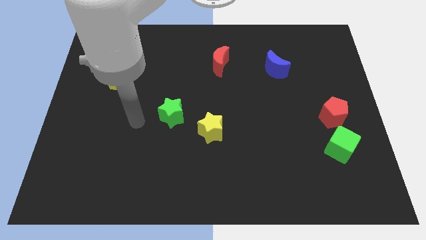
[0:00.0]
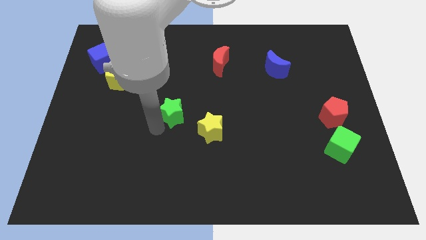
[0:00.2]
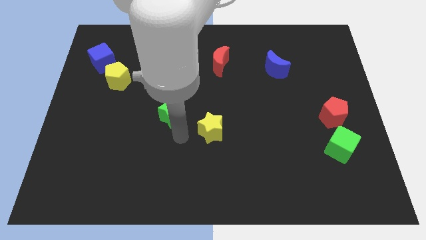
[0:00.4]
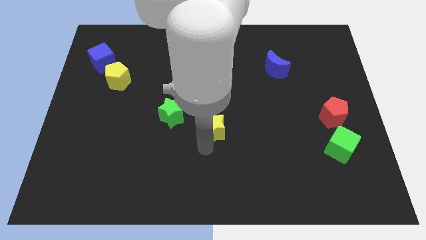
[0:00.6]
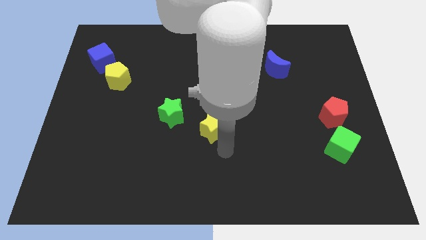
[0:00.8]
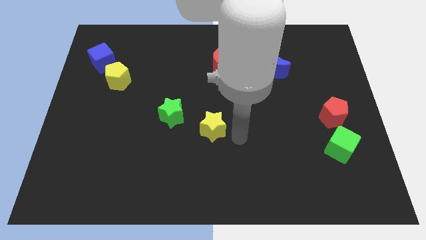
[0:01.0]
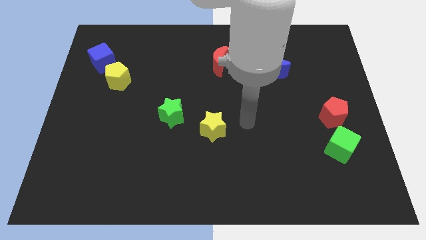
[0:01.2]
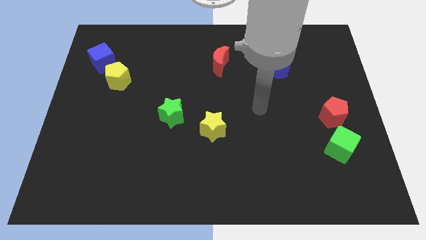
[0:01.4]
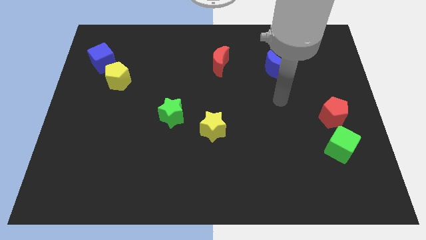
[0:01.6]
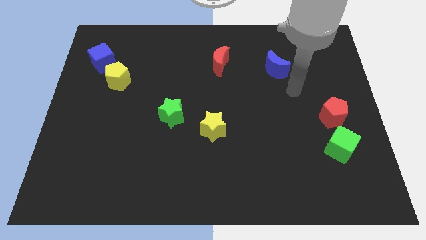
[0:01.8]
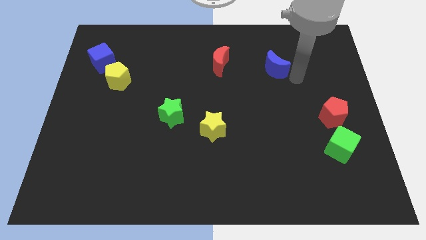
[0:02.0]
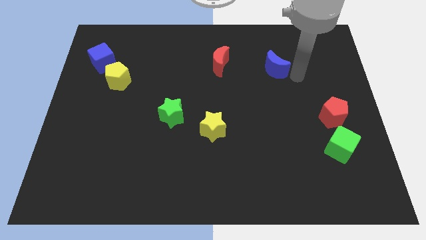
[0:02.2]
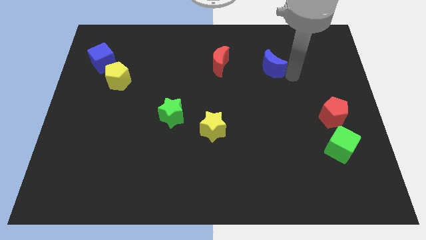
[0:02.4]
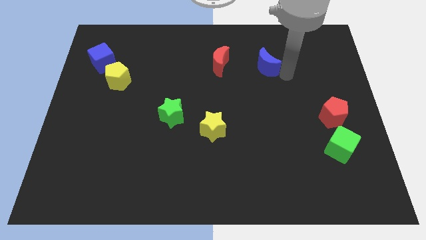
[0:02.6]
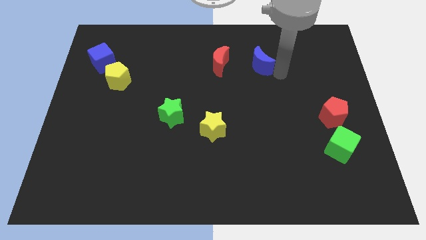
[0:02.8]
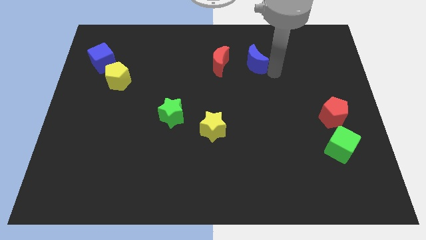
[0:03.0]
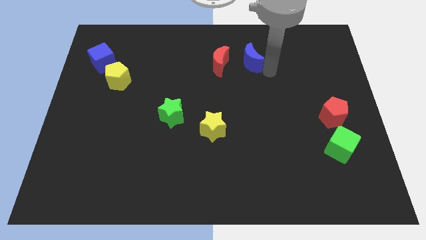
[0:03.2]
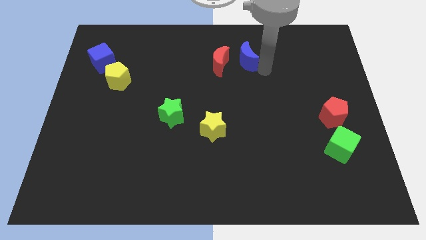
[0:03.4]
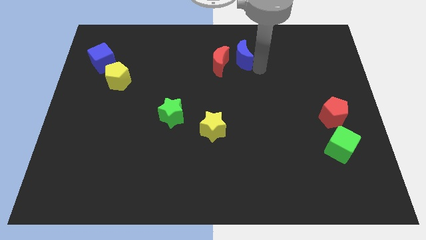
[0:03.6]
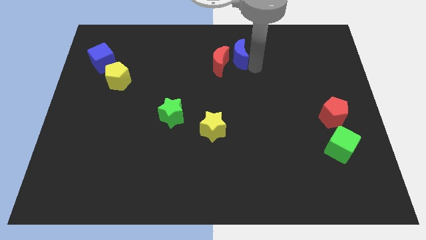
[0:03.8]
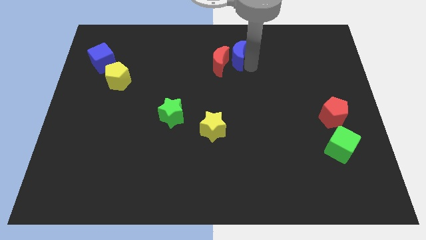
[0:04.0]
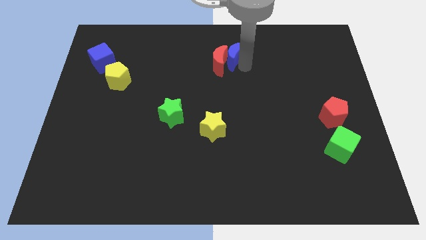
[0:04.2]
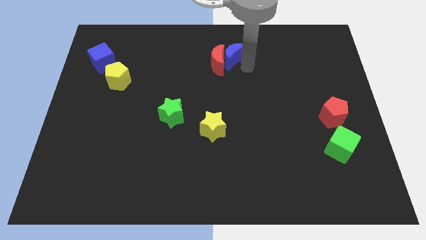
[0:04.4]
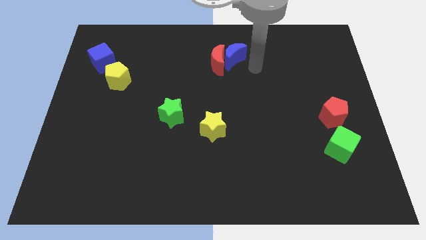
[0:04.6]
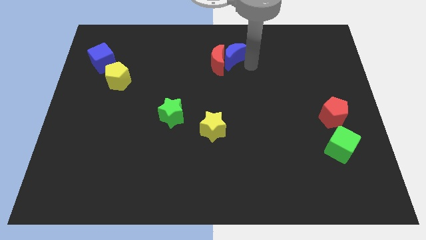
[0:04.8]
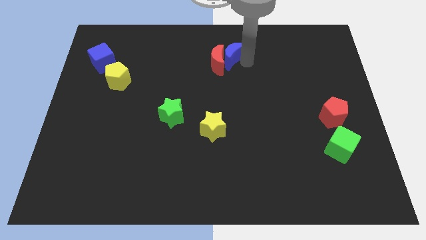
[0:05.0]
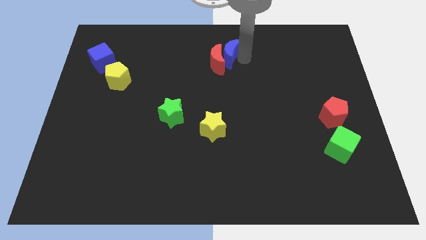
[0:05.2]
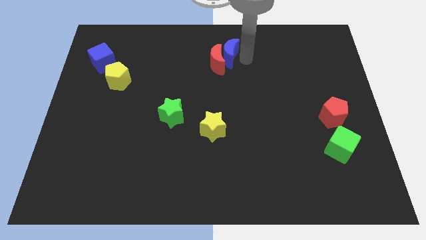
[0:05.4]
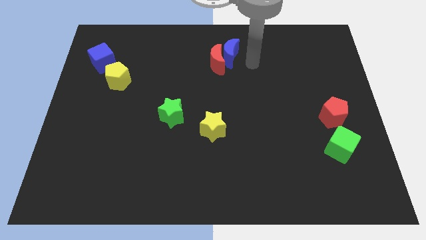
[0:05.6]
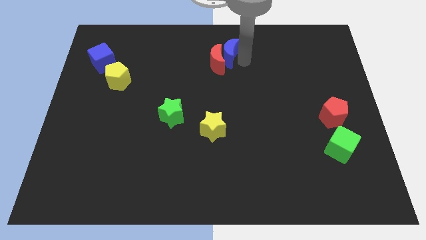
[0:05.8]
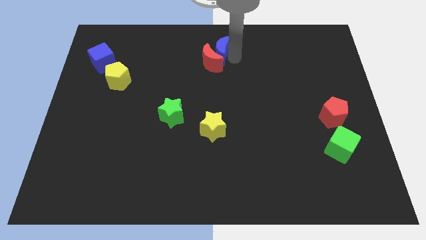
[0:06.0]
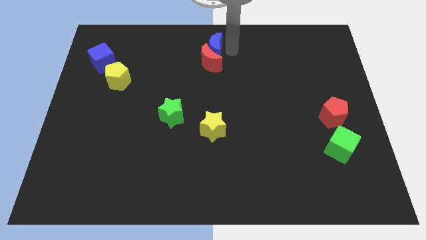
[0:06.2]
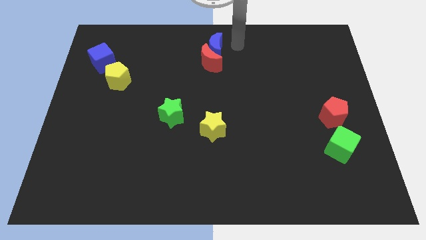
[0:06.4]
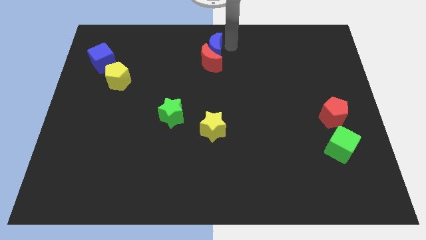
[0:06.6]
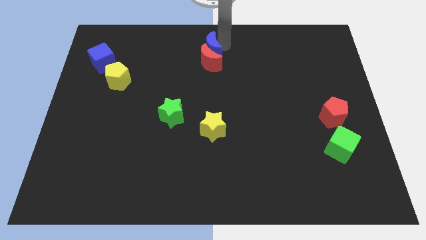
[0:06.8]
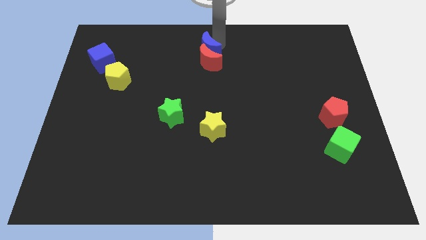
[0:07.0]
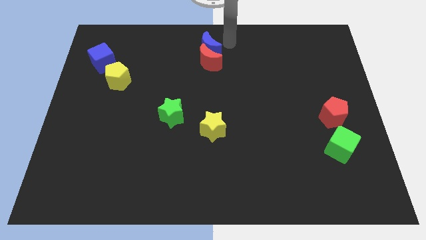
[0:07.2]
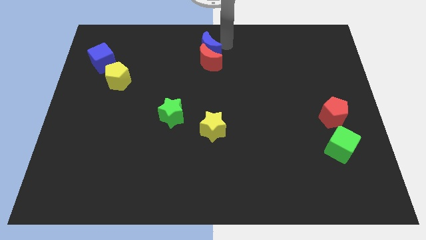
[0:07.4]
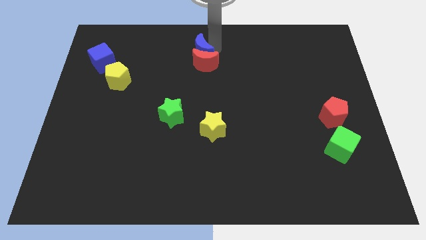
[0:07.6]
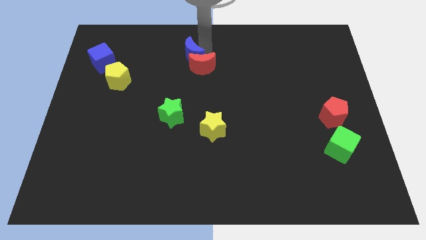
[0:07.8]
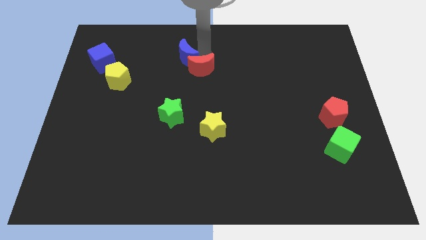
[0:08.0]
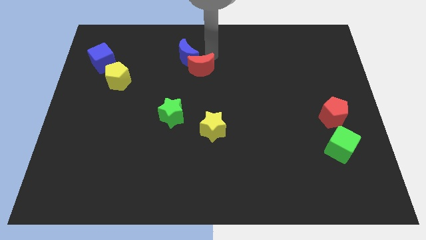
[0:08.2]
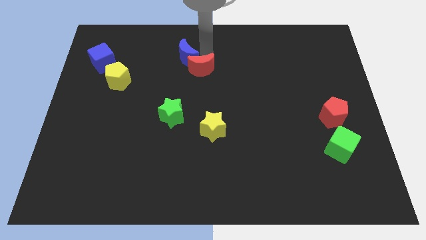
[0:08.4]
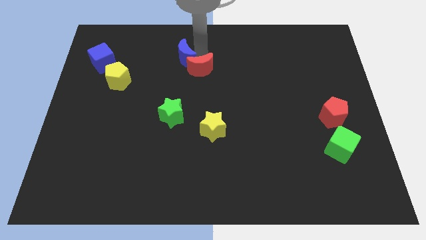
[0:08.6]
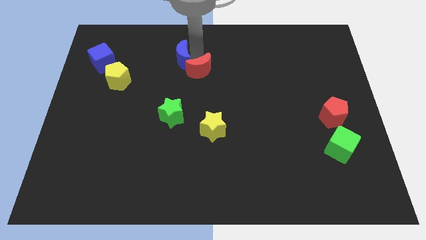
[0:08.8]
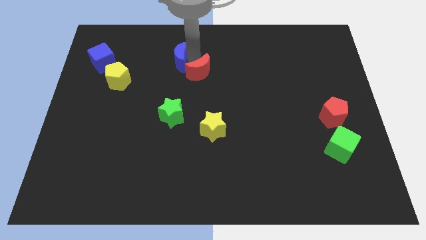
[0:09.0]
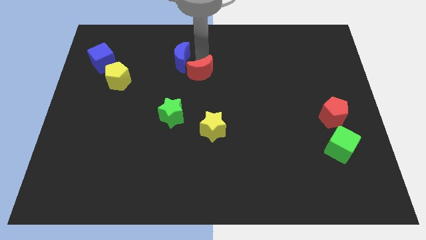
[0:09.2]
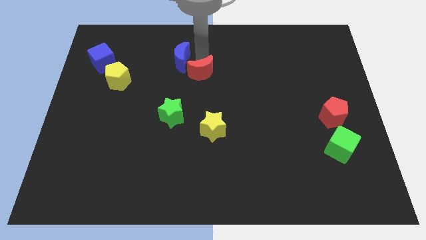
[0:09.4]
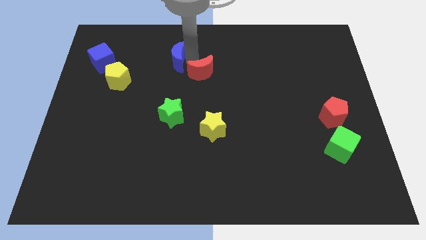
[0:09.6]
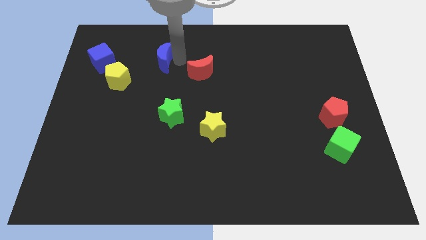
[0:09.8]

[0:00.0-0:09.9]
put the blue moon right of the blue cube

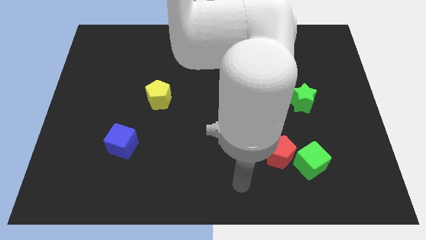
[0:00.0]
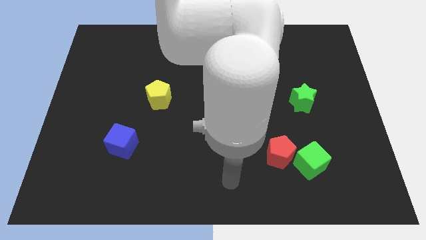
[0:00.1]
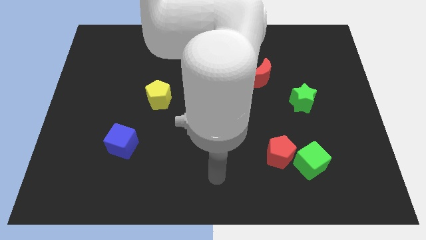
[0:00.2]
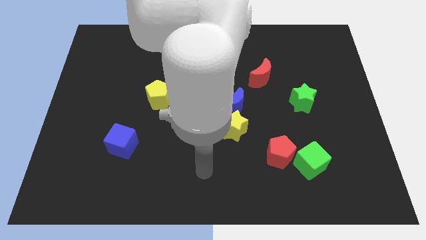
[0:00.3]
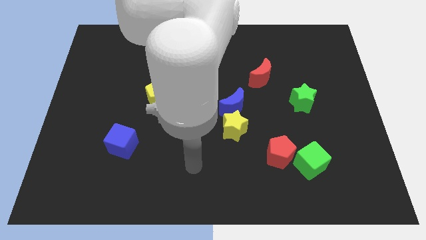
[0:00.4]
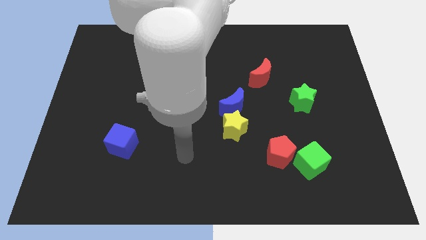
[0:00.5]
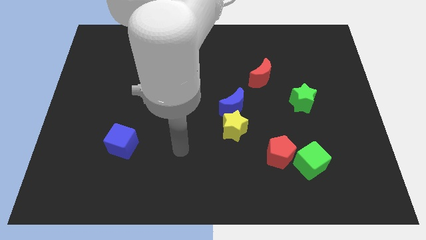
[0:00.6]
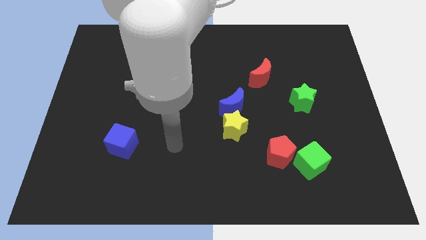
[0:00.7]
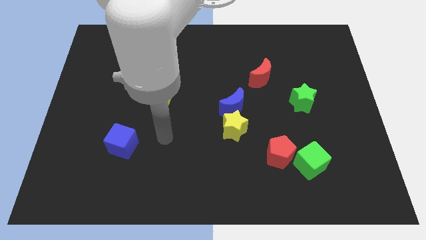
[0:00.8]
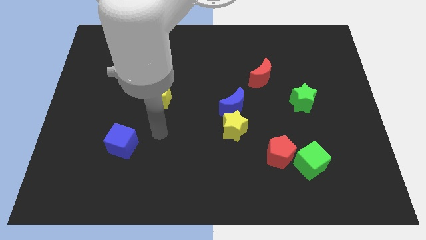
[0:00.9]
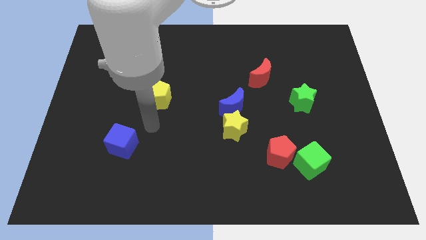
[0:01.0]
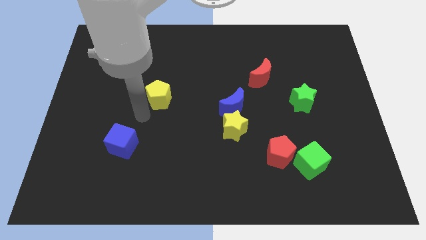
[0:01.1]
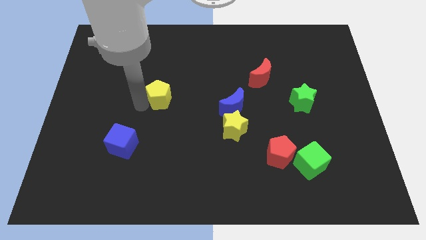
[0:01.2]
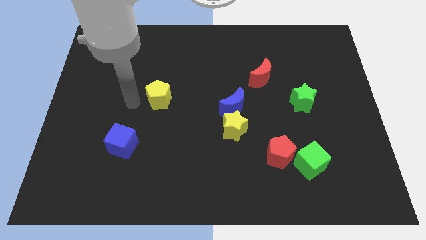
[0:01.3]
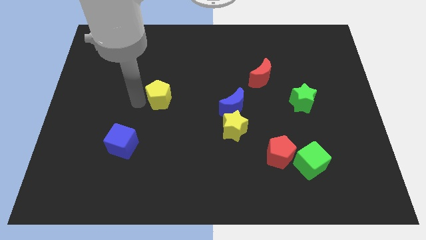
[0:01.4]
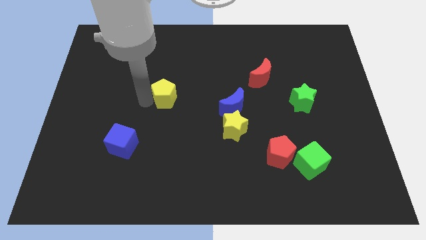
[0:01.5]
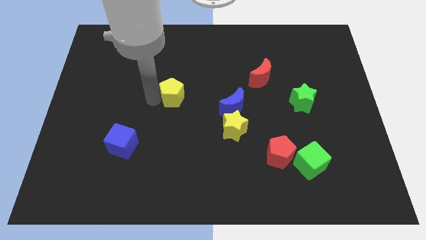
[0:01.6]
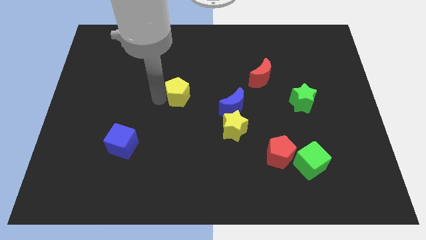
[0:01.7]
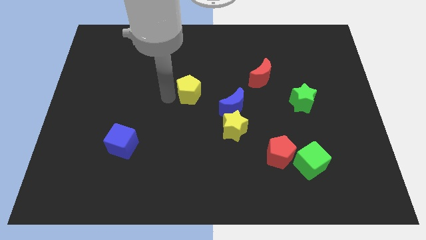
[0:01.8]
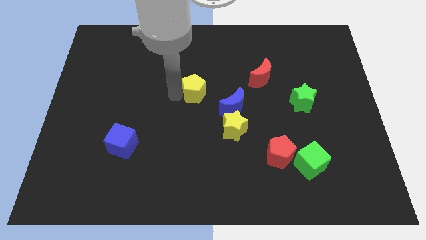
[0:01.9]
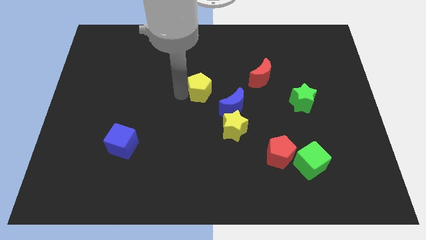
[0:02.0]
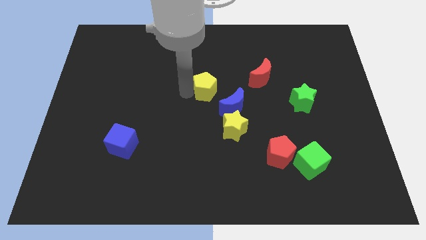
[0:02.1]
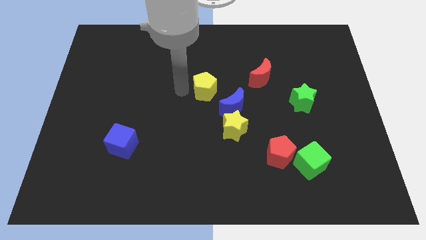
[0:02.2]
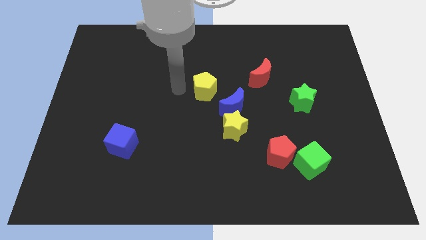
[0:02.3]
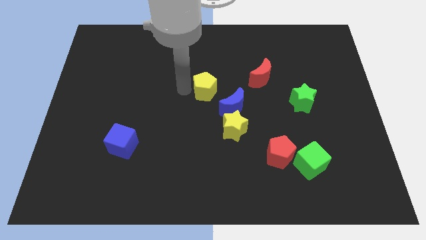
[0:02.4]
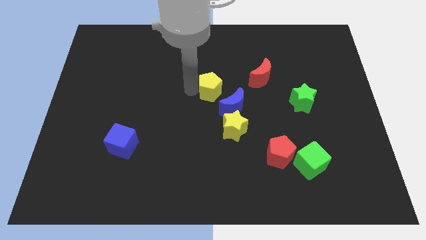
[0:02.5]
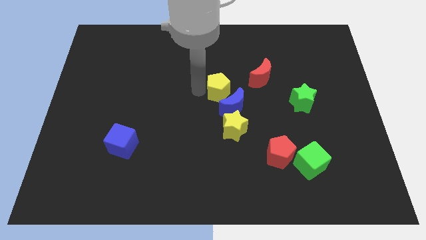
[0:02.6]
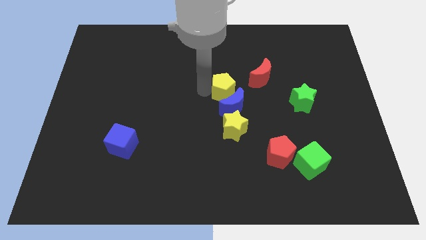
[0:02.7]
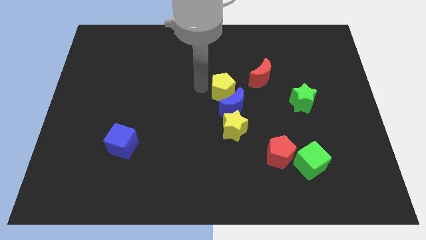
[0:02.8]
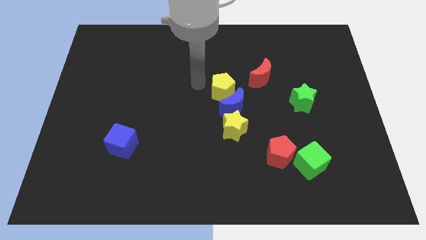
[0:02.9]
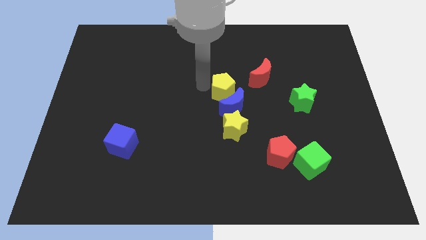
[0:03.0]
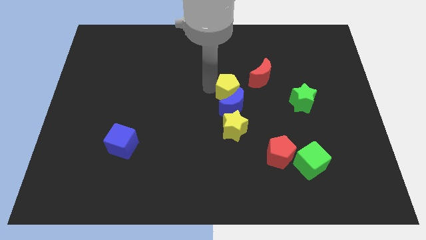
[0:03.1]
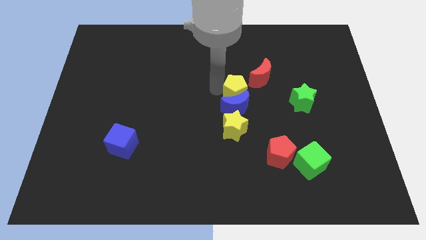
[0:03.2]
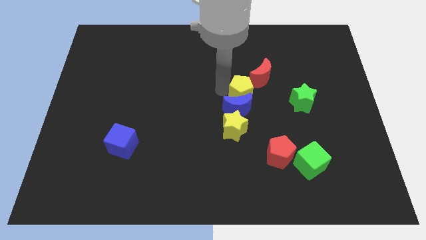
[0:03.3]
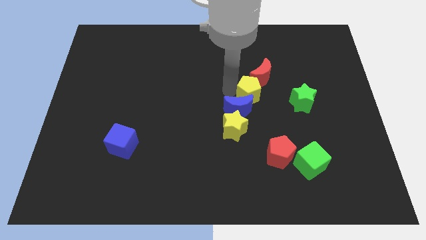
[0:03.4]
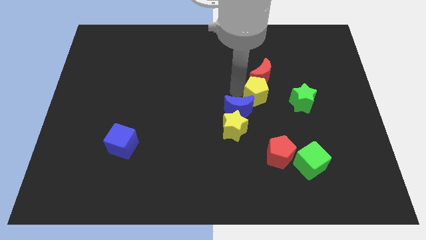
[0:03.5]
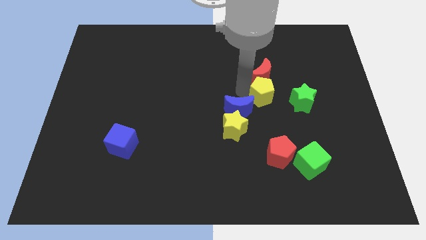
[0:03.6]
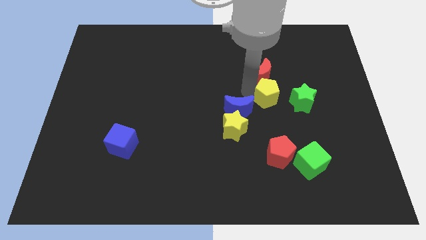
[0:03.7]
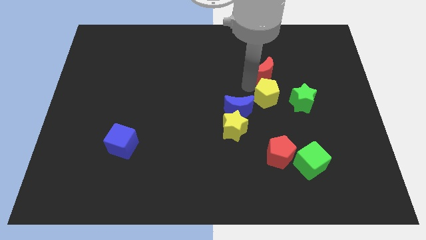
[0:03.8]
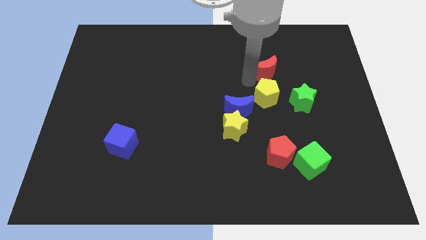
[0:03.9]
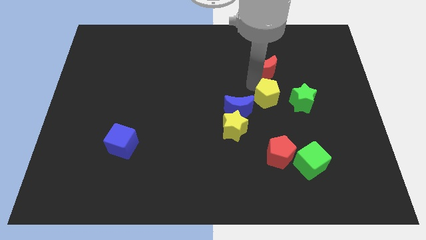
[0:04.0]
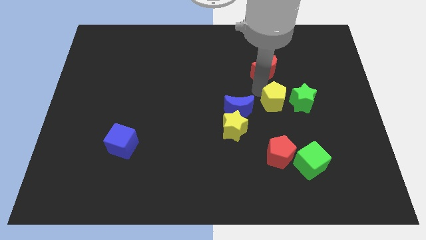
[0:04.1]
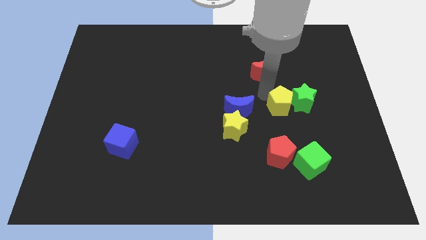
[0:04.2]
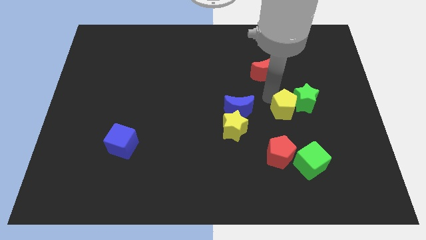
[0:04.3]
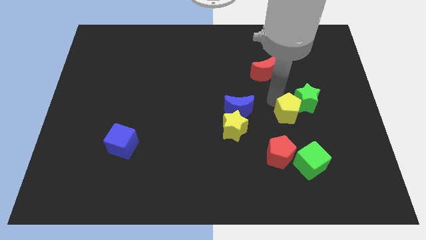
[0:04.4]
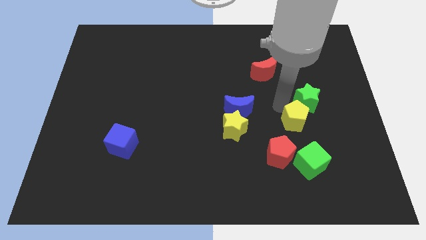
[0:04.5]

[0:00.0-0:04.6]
push the yellow pentagon to the bottom side of the green star
